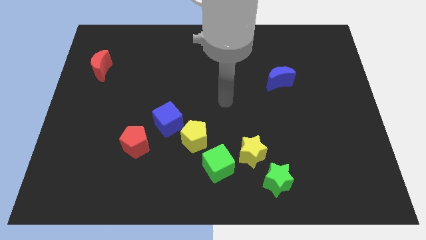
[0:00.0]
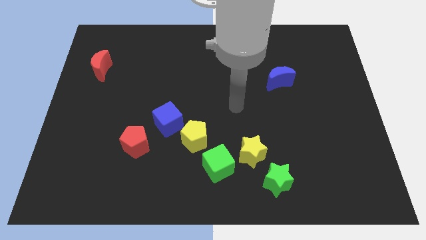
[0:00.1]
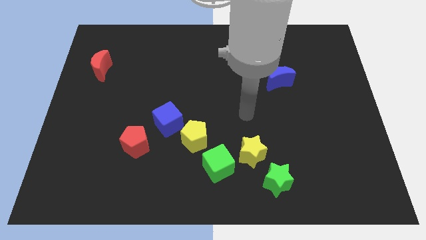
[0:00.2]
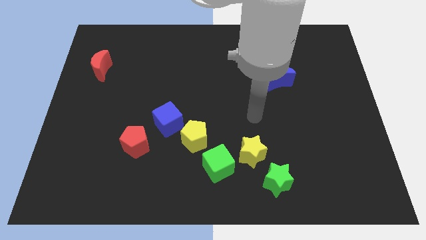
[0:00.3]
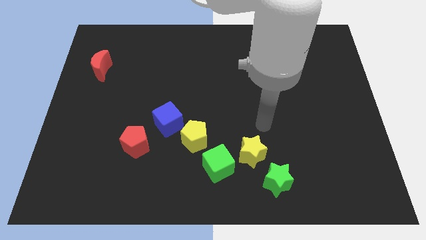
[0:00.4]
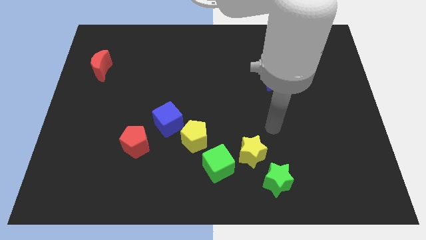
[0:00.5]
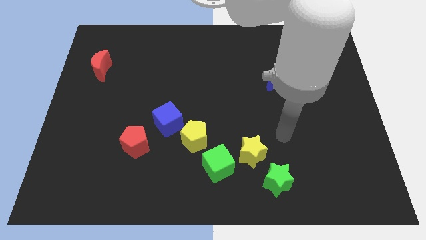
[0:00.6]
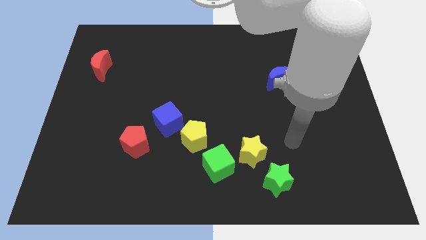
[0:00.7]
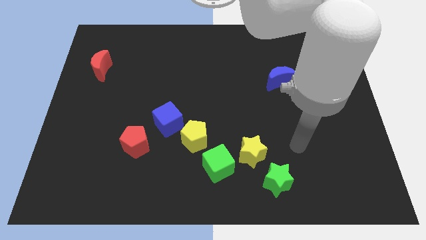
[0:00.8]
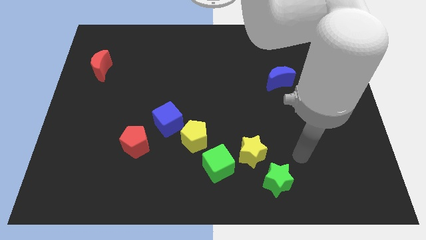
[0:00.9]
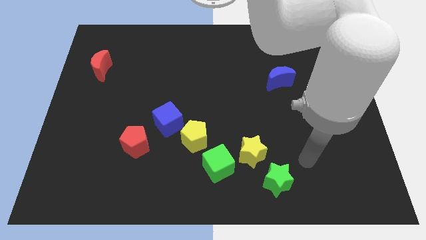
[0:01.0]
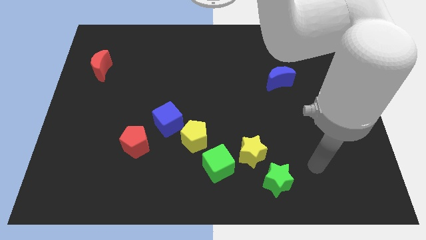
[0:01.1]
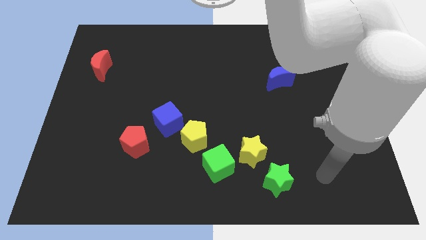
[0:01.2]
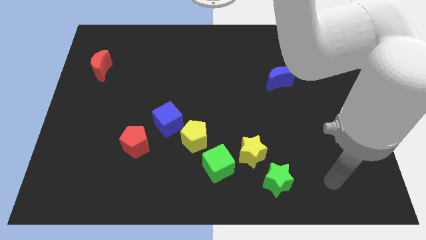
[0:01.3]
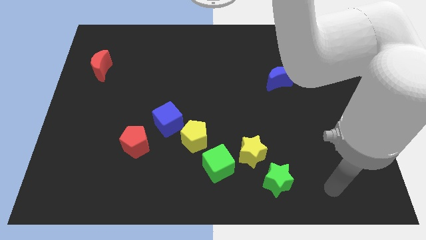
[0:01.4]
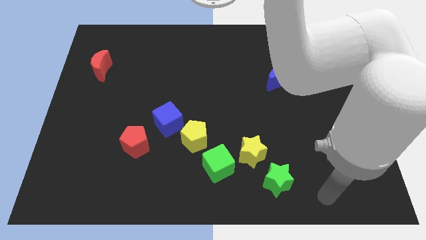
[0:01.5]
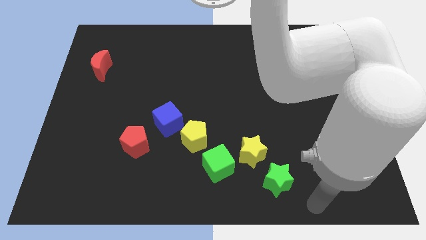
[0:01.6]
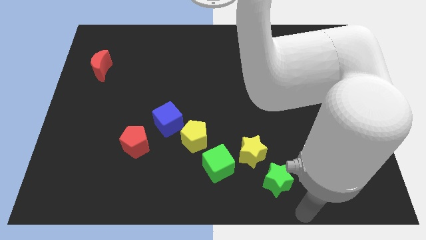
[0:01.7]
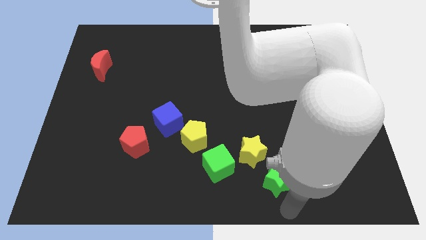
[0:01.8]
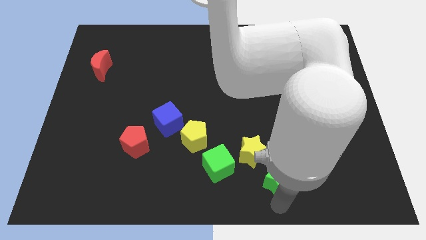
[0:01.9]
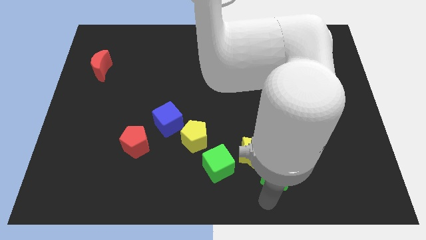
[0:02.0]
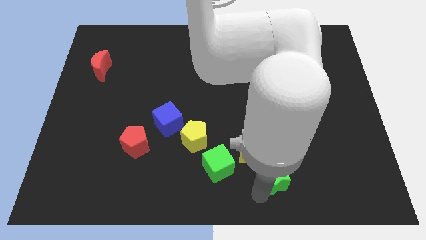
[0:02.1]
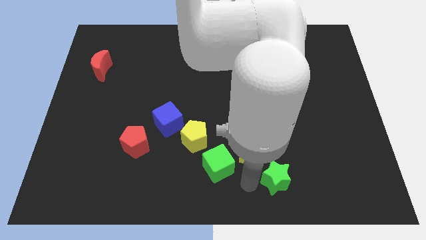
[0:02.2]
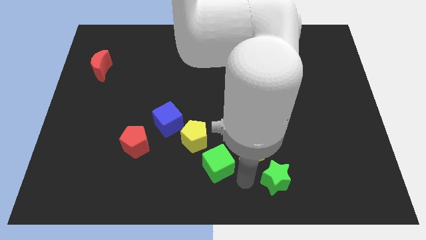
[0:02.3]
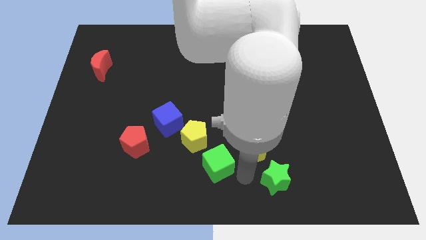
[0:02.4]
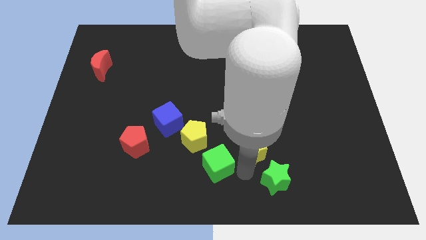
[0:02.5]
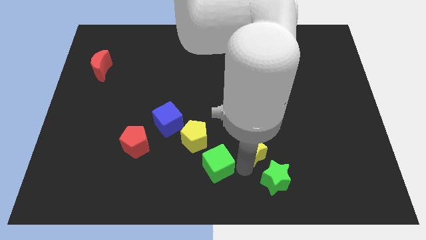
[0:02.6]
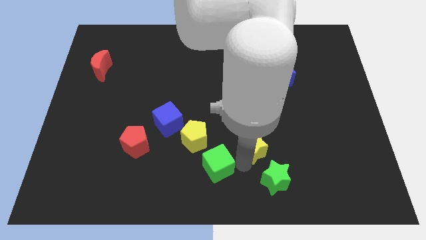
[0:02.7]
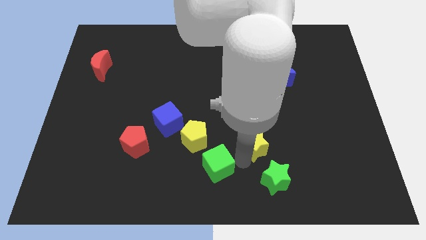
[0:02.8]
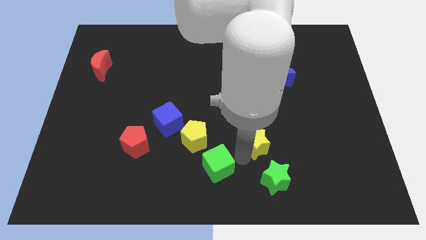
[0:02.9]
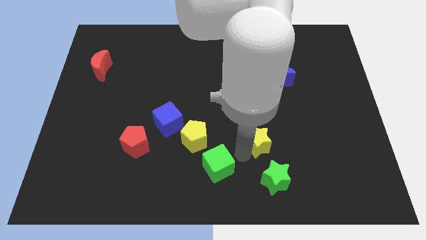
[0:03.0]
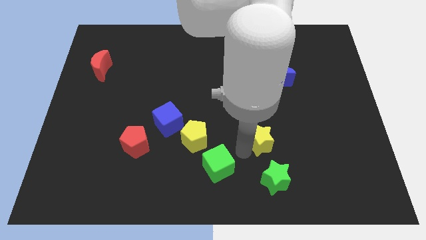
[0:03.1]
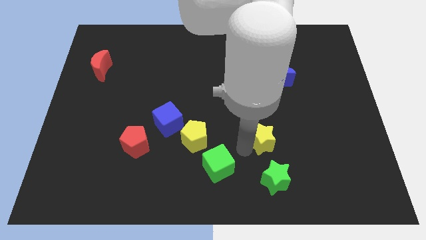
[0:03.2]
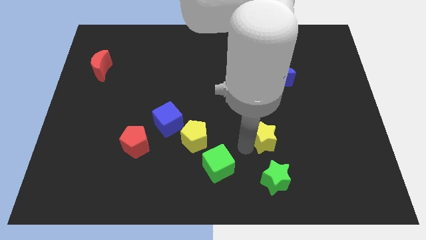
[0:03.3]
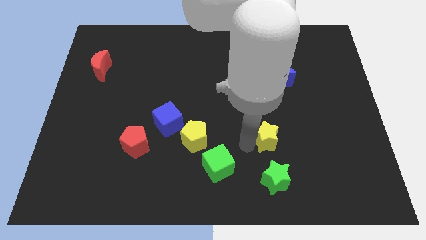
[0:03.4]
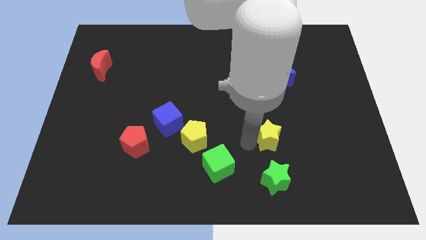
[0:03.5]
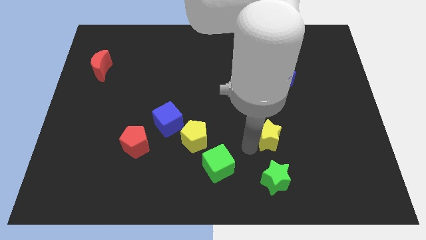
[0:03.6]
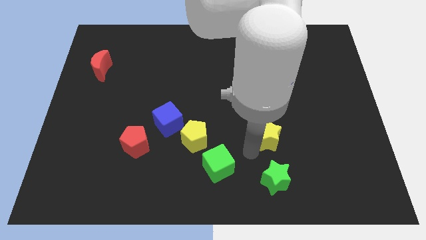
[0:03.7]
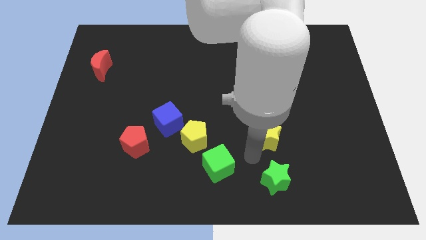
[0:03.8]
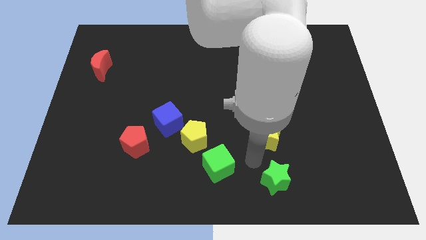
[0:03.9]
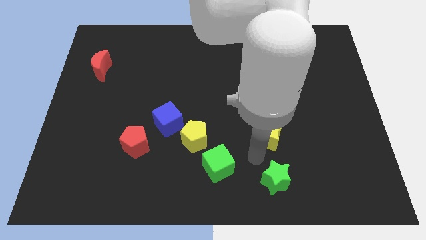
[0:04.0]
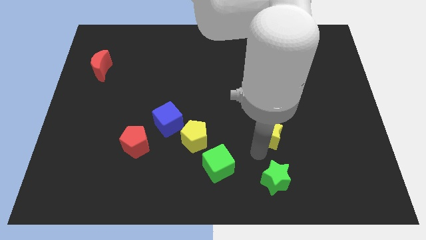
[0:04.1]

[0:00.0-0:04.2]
move the yellow star away from the green cube and green star

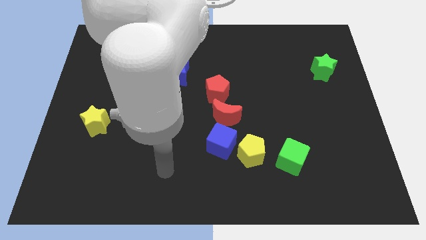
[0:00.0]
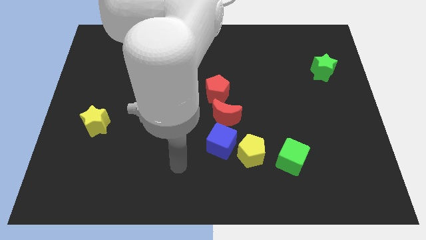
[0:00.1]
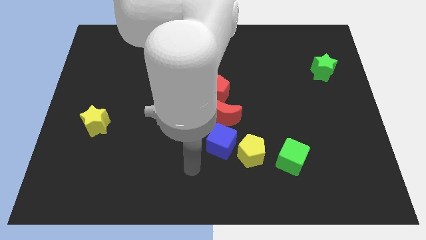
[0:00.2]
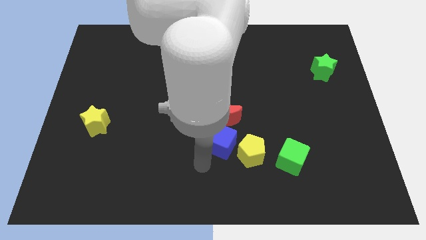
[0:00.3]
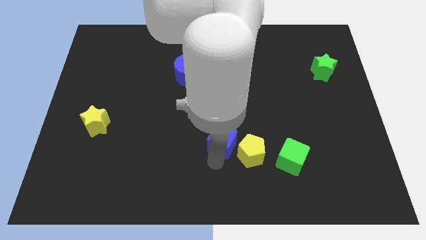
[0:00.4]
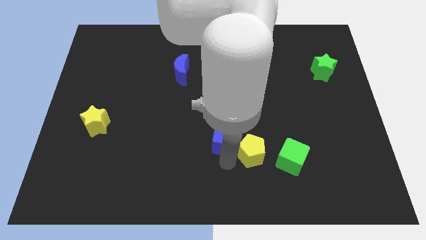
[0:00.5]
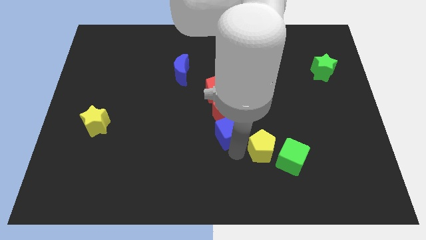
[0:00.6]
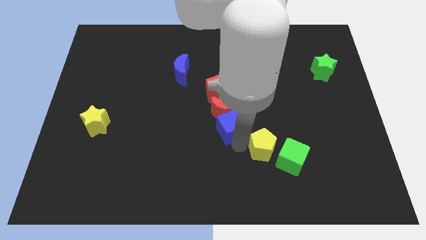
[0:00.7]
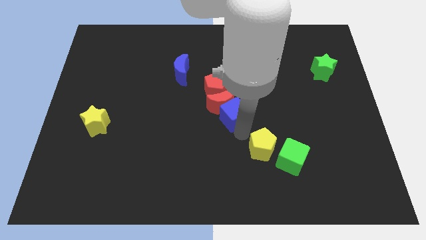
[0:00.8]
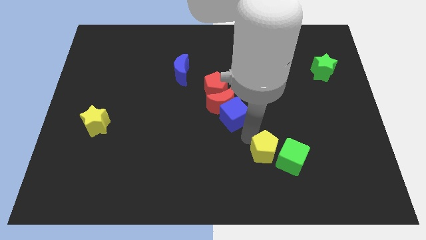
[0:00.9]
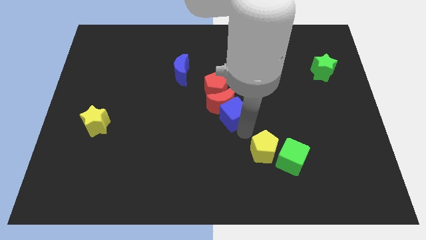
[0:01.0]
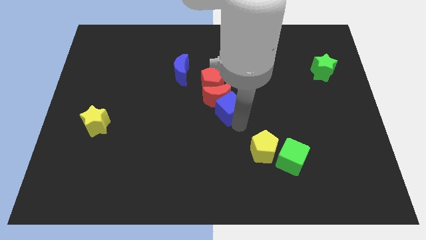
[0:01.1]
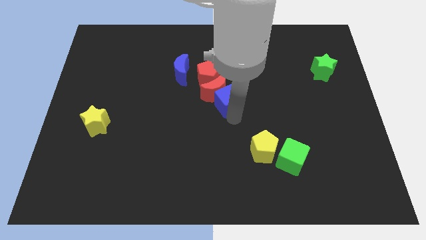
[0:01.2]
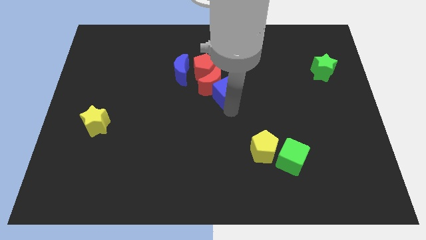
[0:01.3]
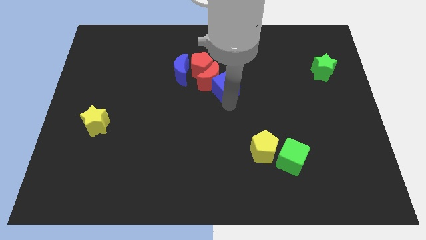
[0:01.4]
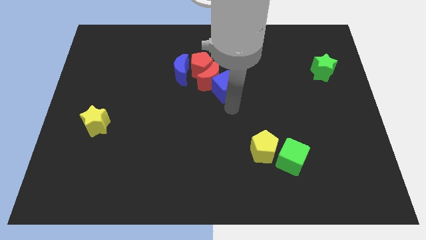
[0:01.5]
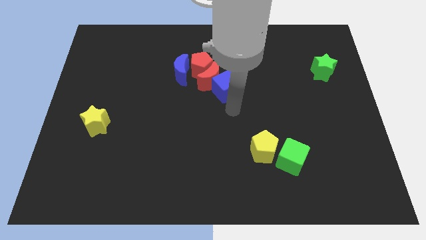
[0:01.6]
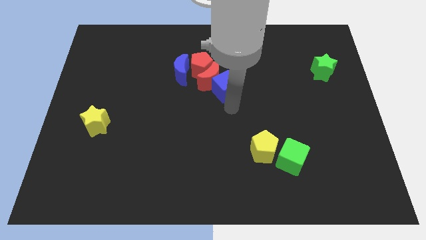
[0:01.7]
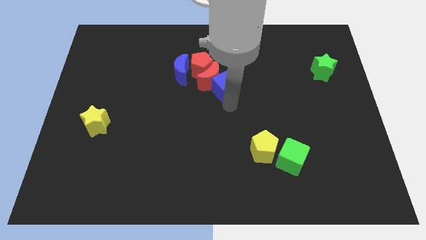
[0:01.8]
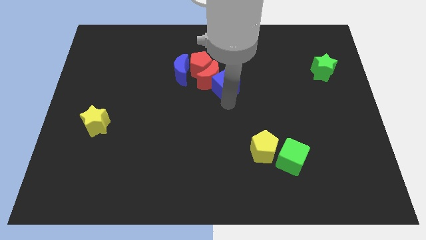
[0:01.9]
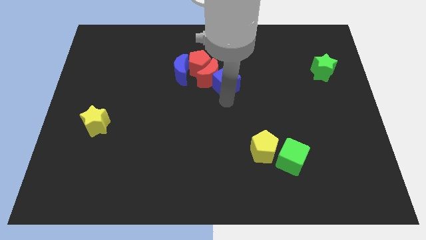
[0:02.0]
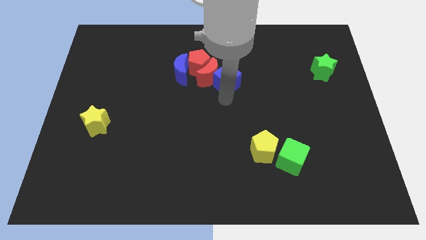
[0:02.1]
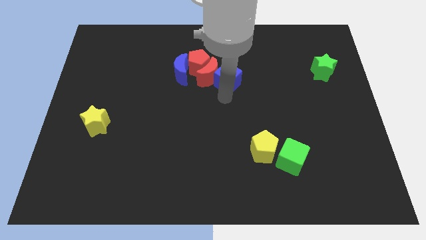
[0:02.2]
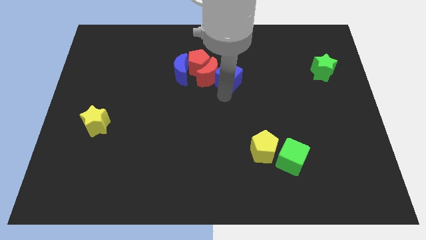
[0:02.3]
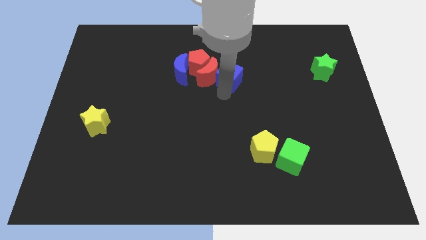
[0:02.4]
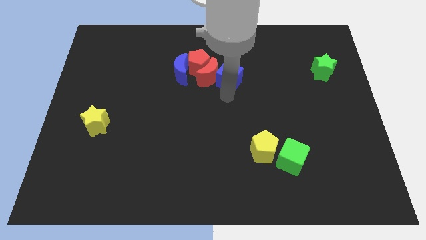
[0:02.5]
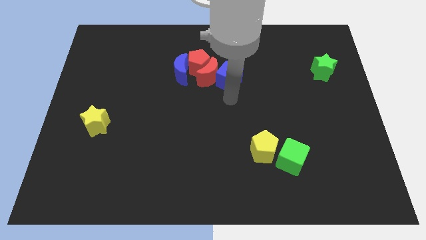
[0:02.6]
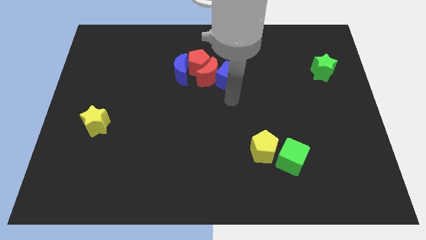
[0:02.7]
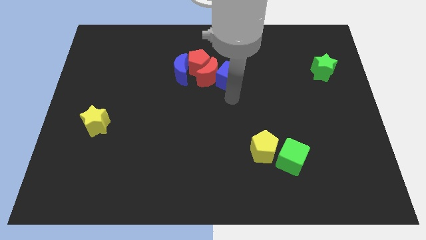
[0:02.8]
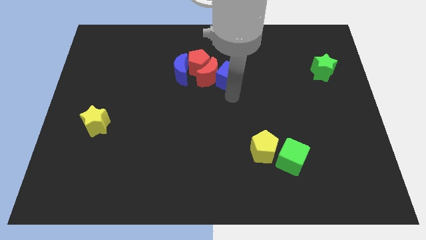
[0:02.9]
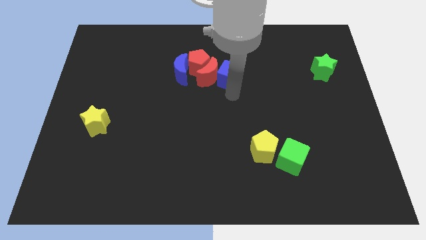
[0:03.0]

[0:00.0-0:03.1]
separate the blue cube from the yellow pentagon and red moon

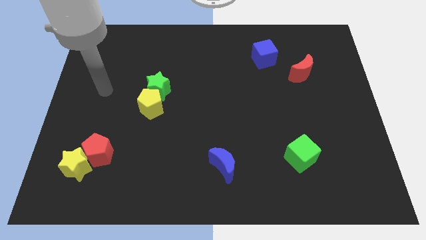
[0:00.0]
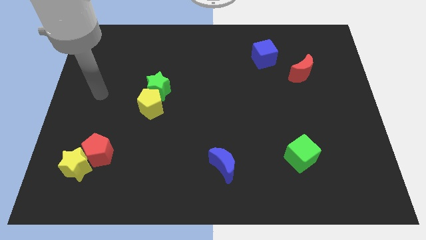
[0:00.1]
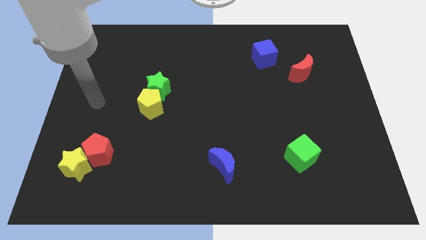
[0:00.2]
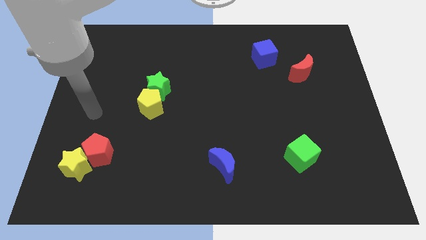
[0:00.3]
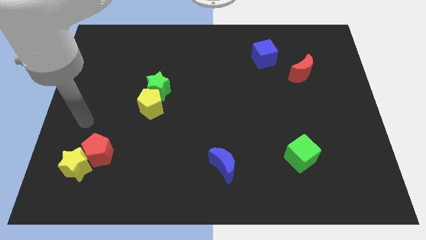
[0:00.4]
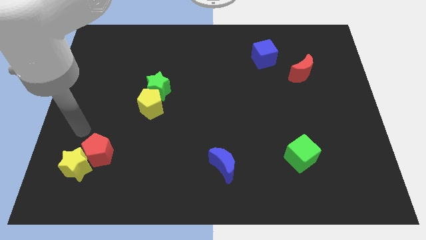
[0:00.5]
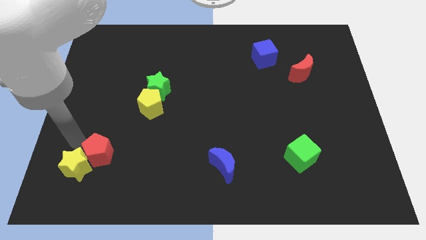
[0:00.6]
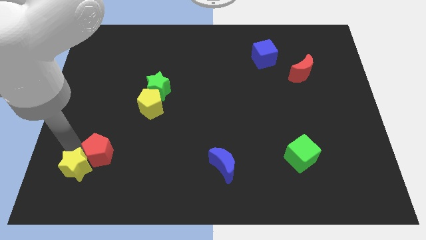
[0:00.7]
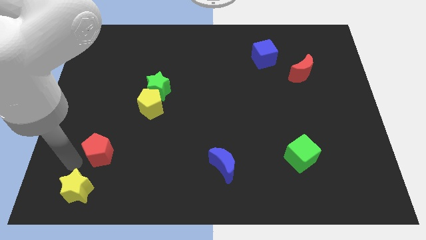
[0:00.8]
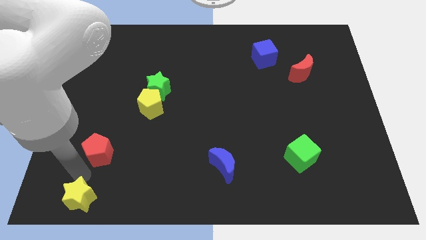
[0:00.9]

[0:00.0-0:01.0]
pull the red pentagon apart from the yellow star

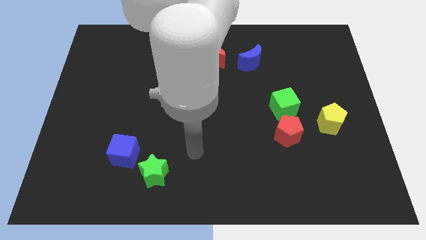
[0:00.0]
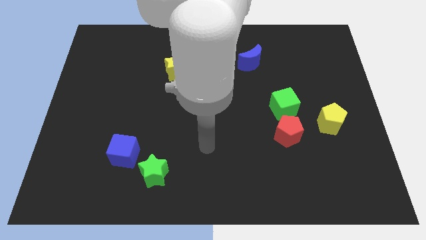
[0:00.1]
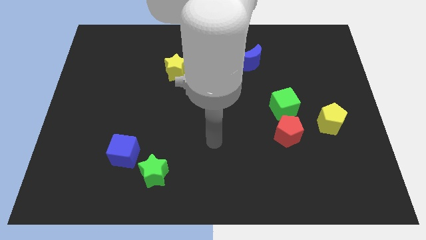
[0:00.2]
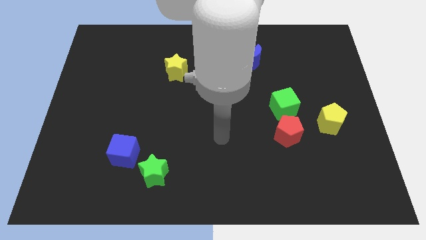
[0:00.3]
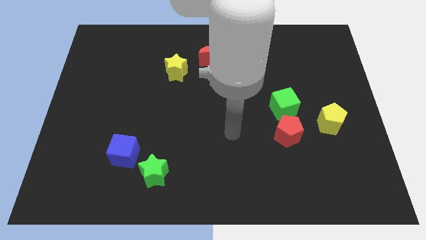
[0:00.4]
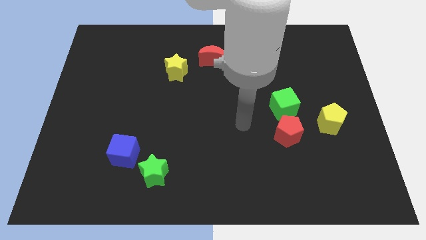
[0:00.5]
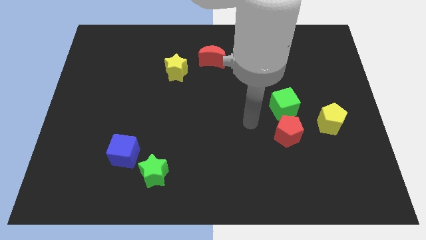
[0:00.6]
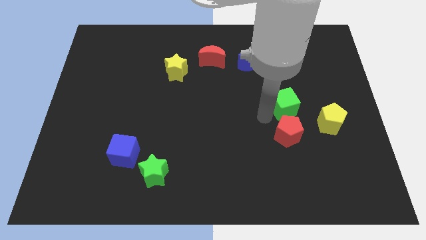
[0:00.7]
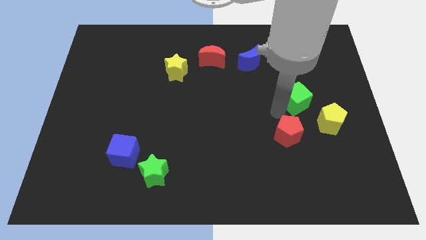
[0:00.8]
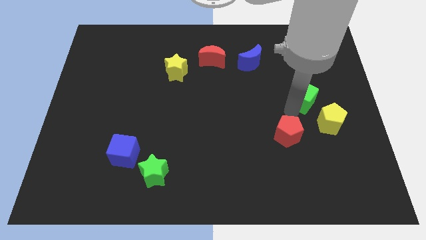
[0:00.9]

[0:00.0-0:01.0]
separate the red pentagon from the green cube

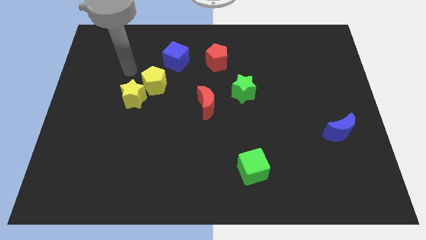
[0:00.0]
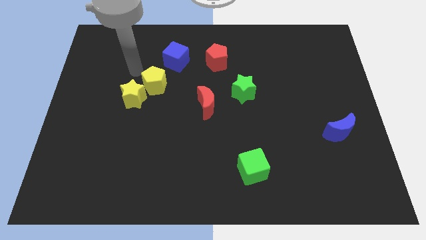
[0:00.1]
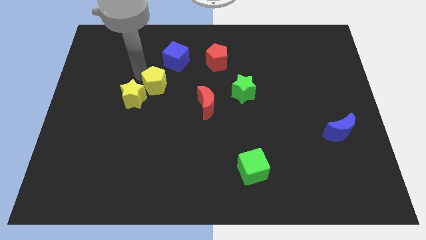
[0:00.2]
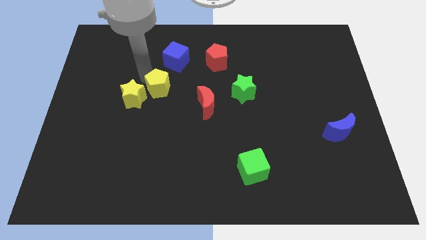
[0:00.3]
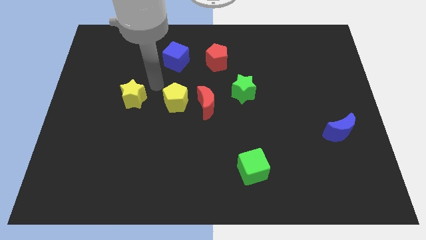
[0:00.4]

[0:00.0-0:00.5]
separate the yellow star from the yellow pentagon
